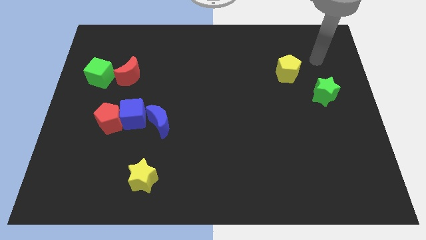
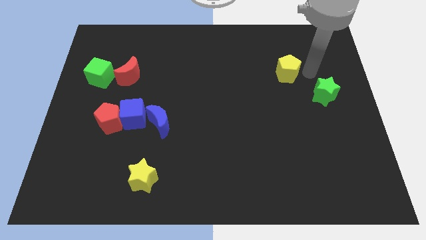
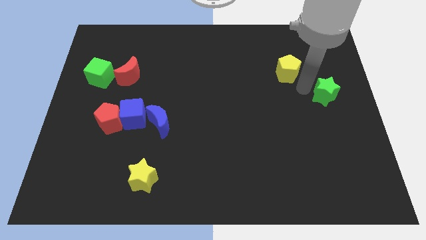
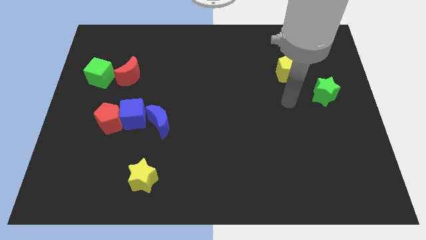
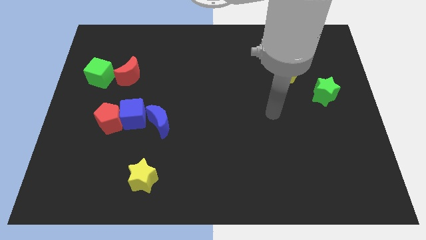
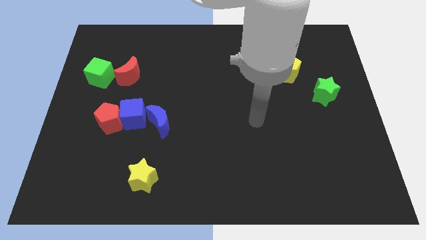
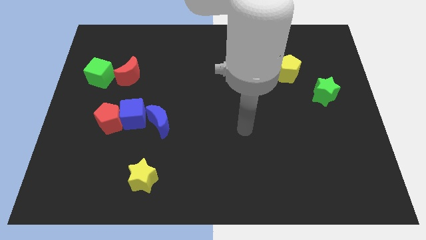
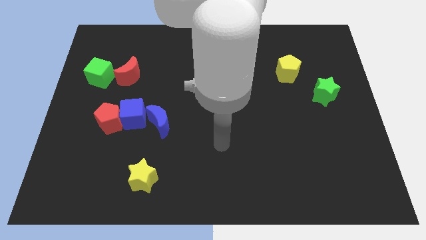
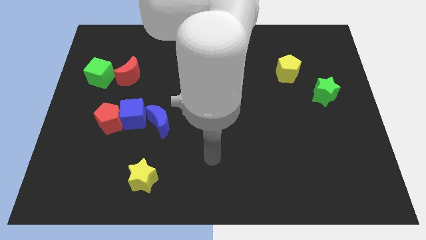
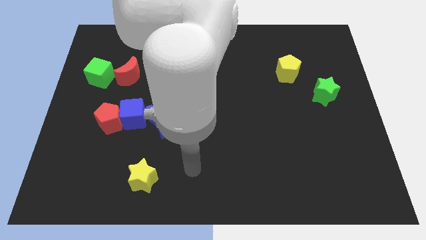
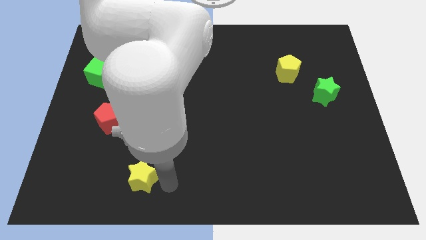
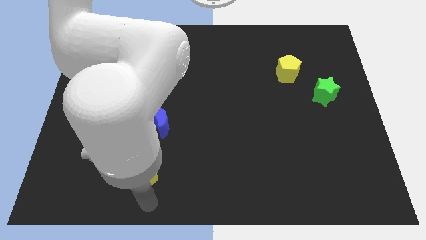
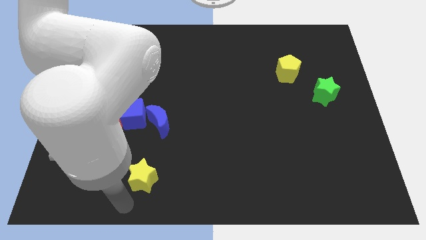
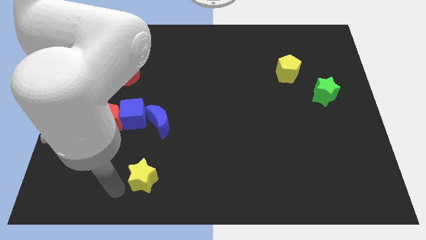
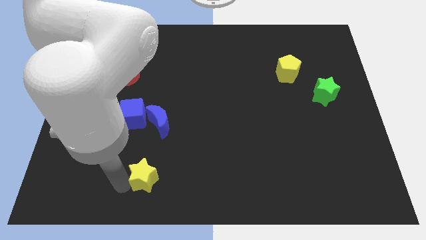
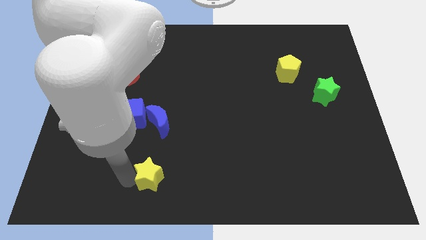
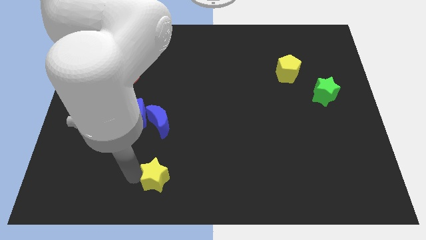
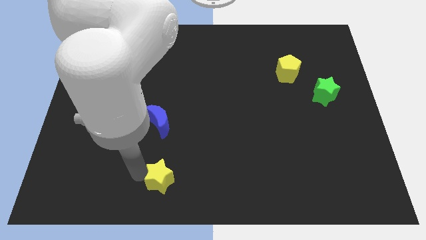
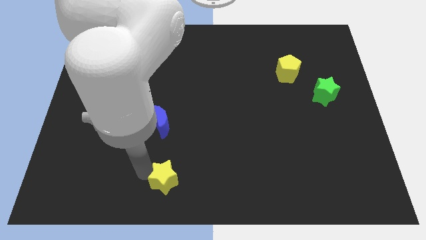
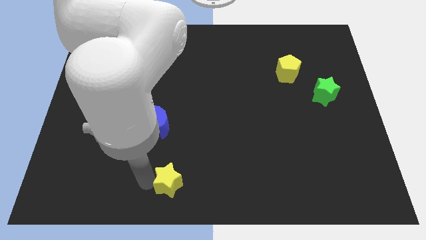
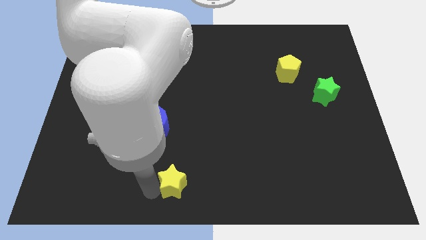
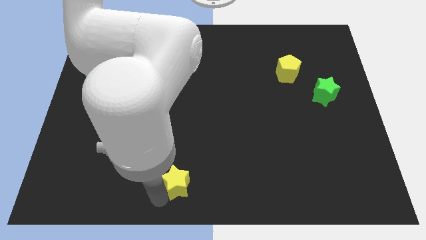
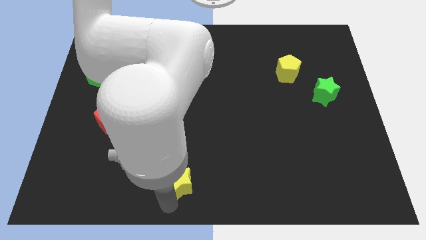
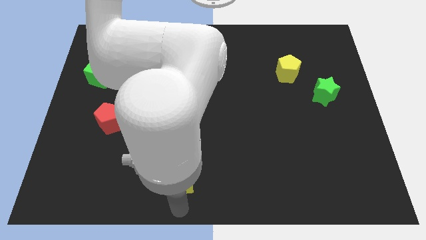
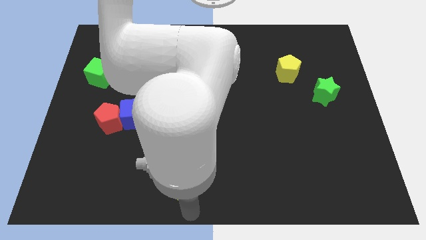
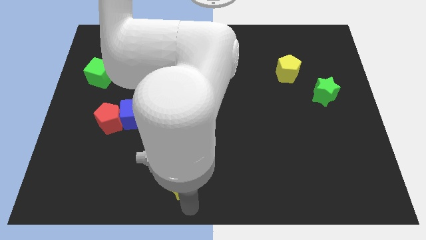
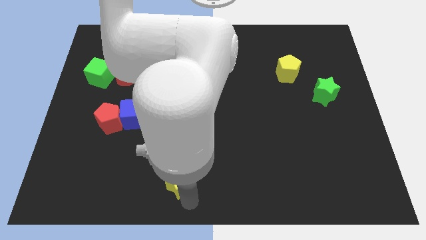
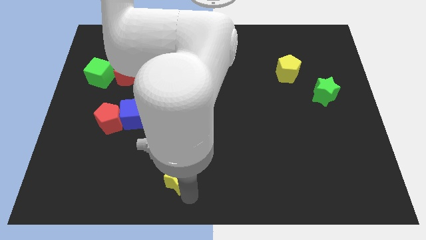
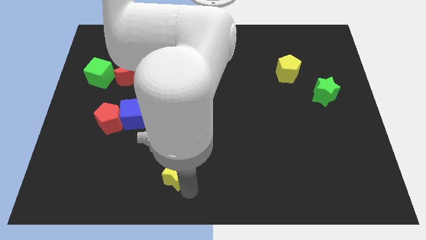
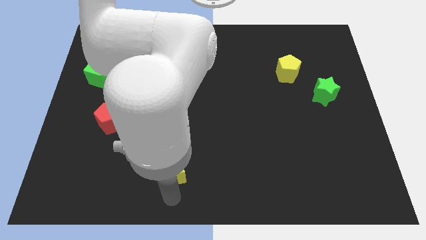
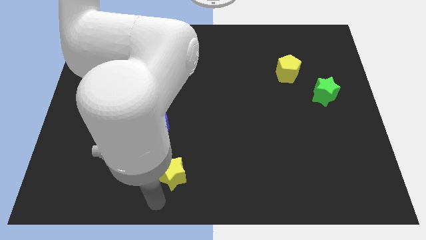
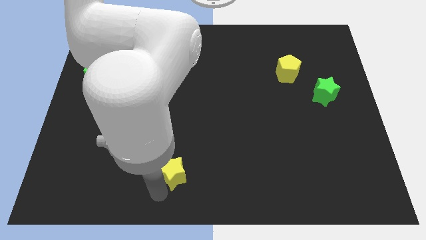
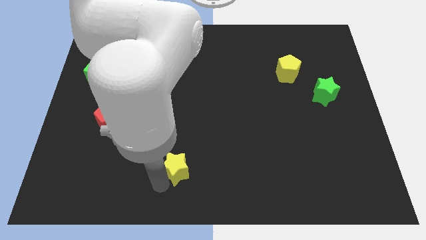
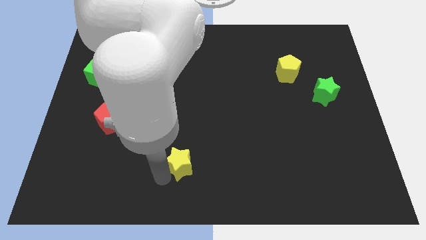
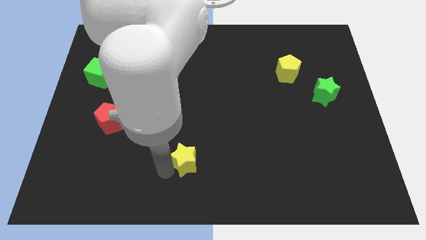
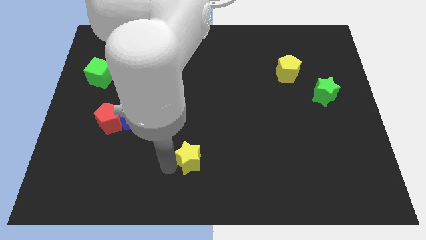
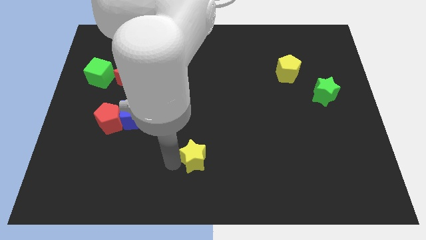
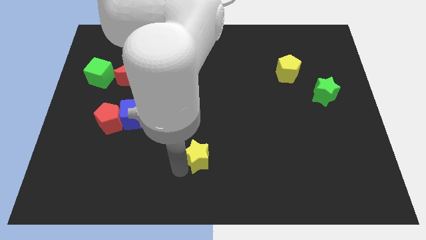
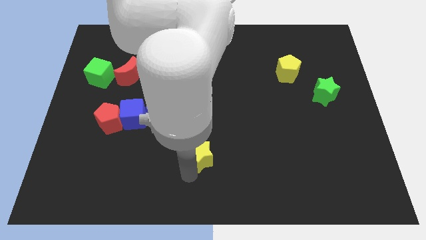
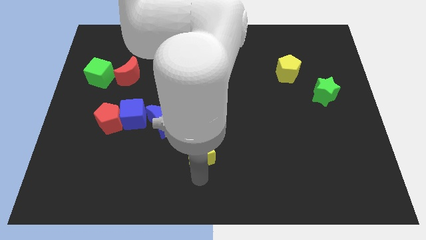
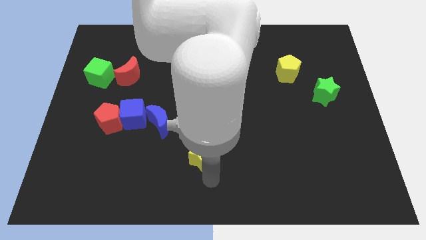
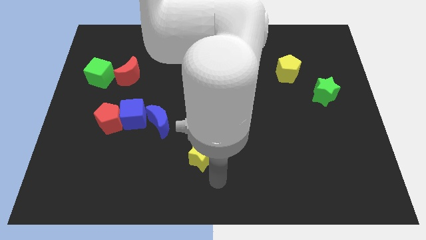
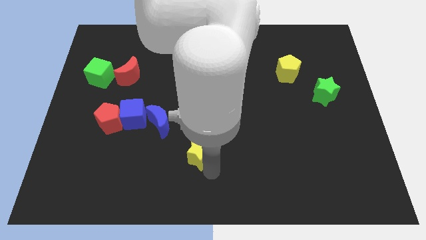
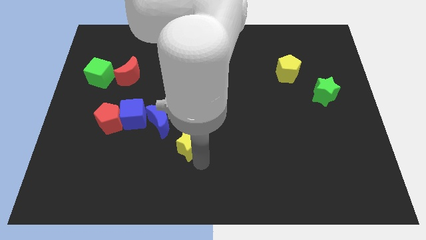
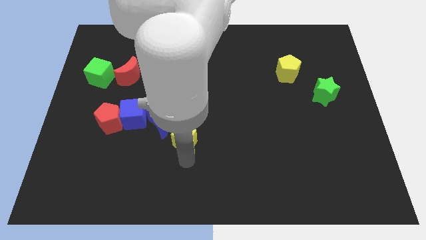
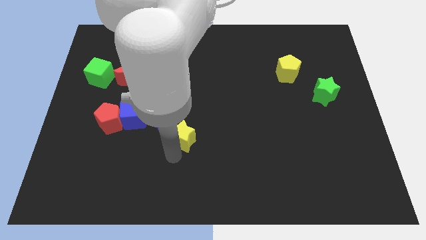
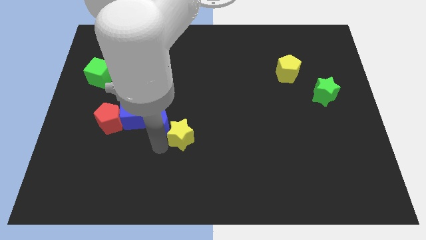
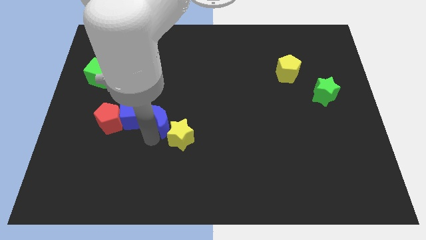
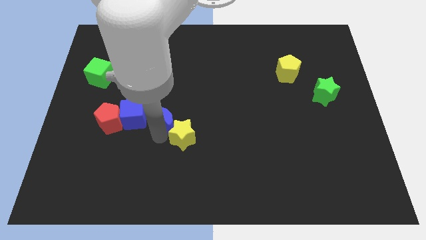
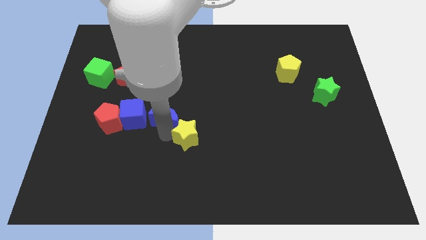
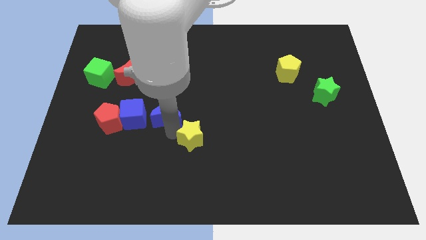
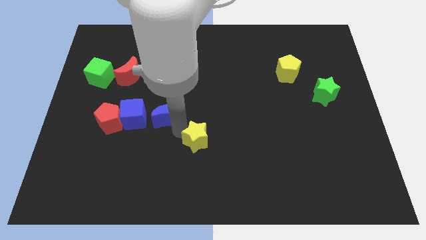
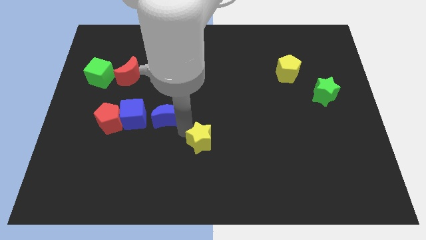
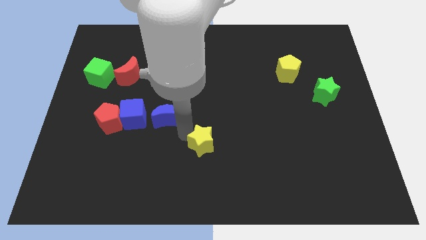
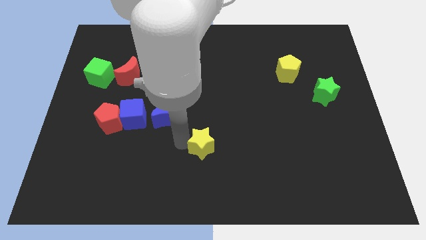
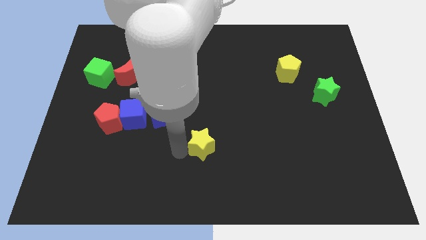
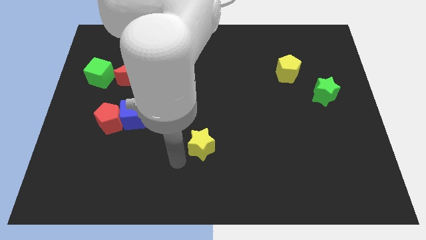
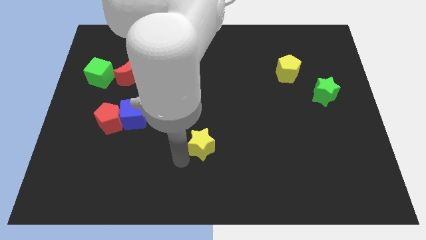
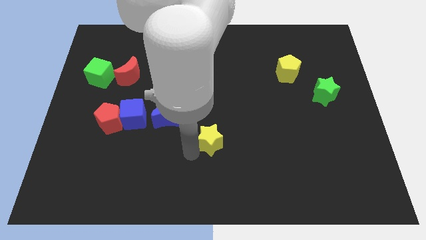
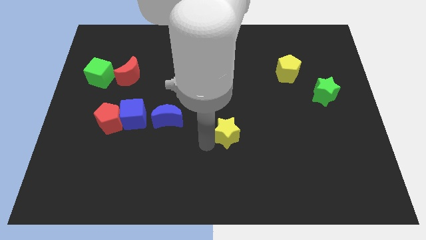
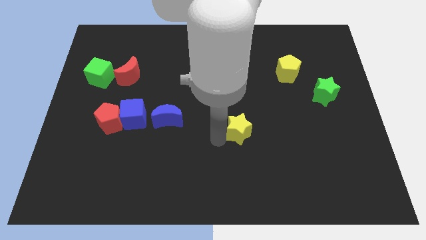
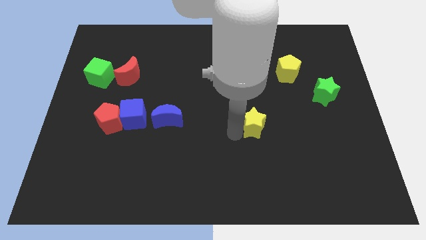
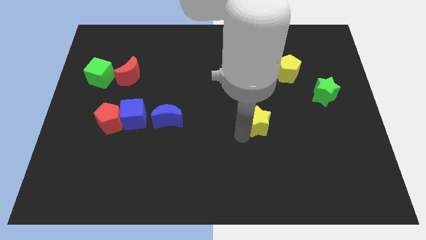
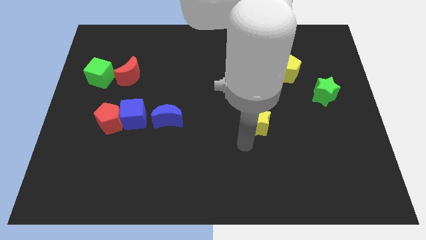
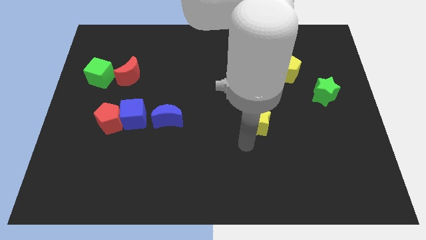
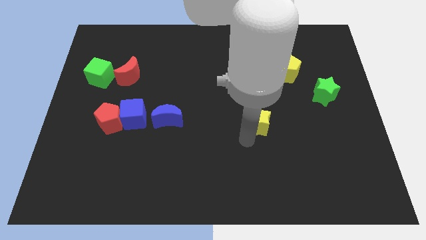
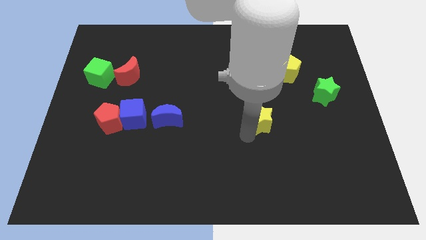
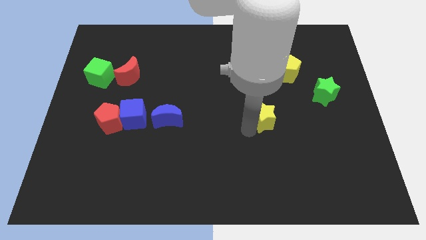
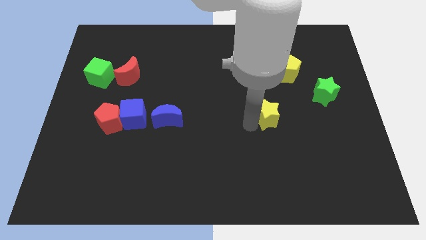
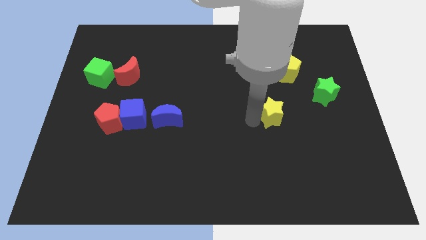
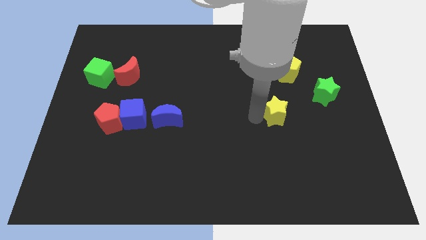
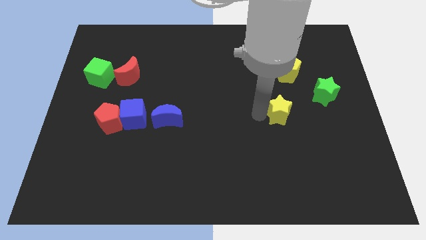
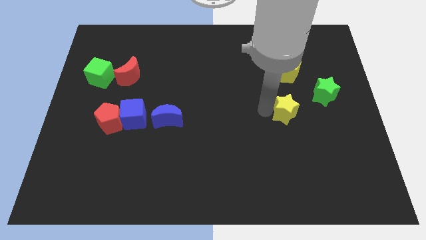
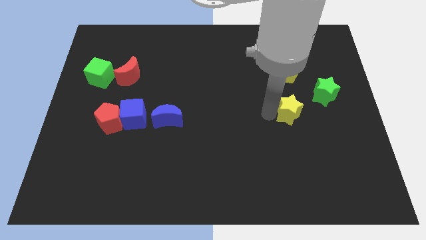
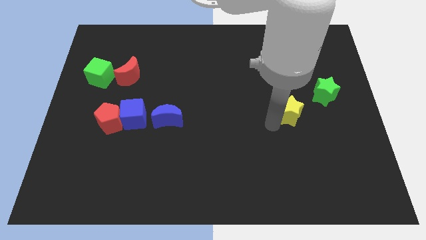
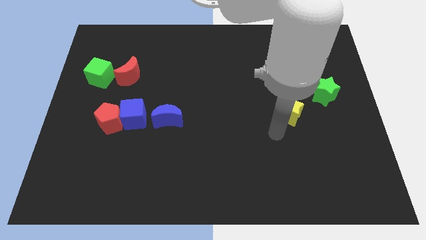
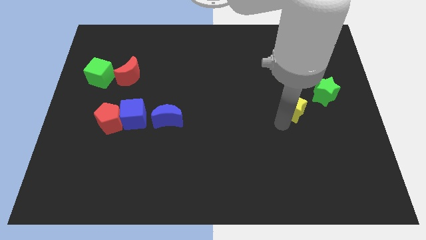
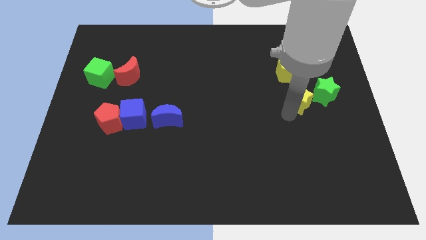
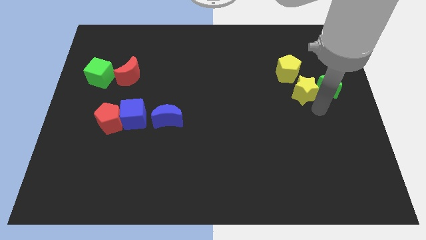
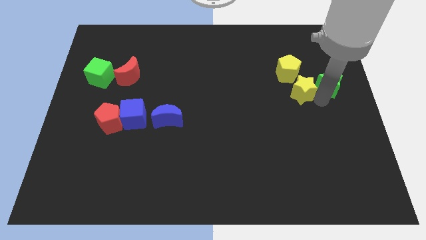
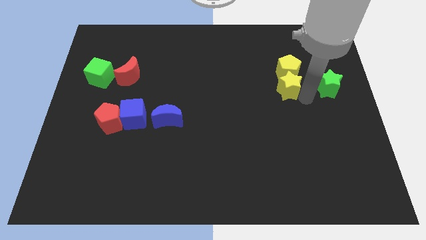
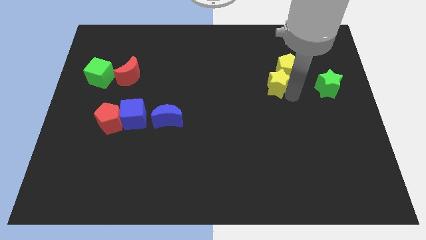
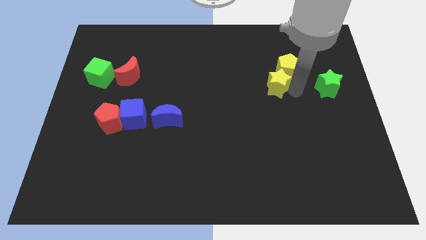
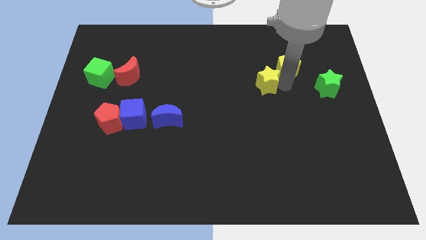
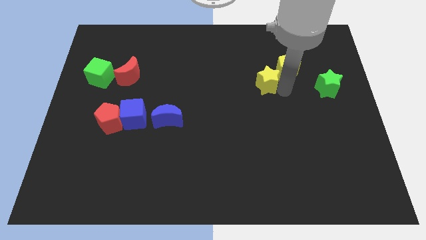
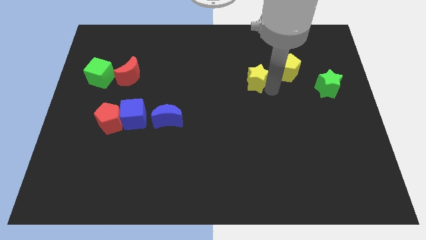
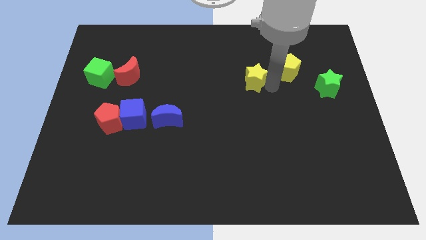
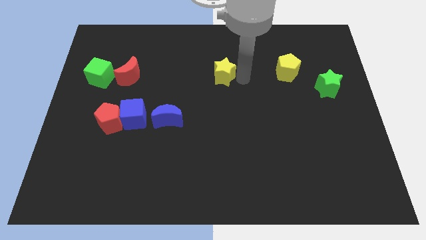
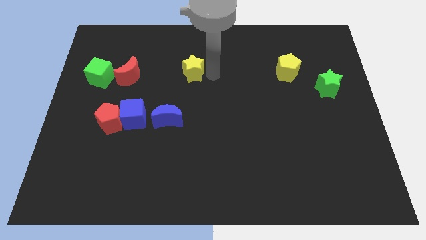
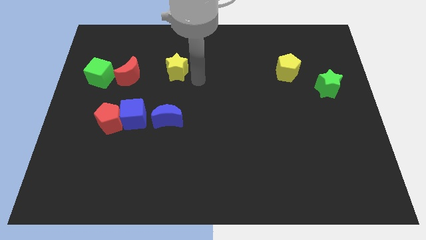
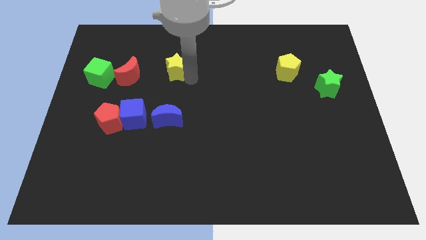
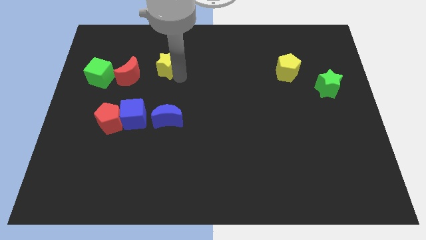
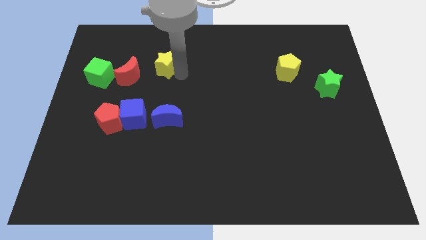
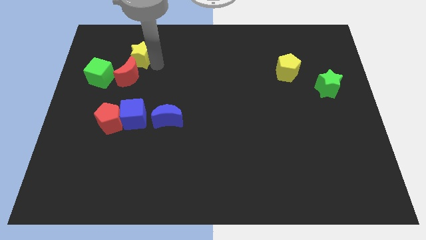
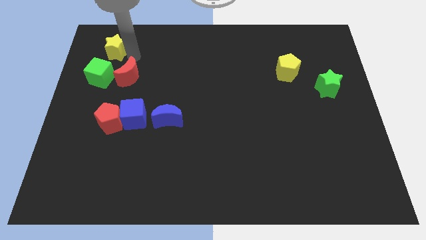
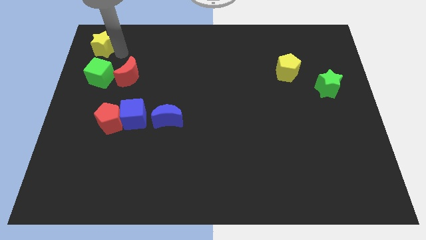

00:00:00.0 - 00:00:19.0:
push the yellow star to the top left of the board
